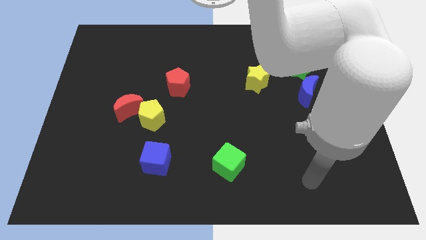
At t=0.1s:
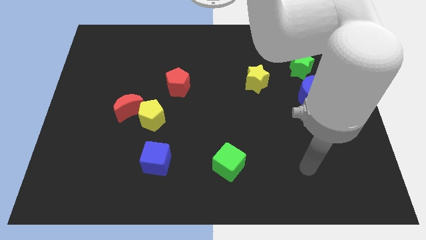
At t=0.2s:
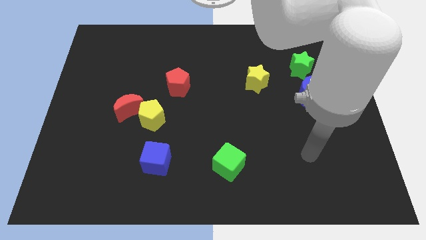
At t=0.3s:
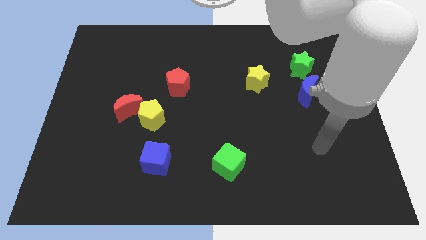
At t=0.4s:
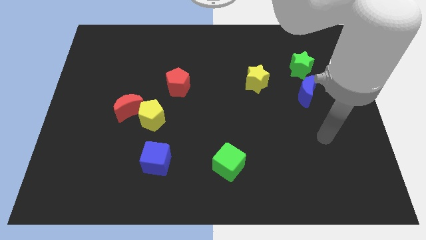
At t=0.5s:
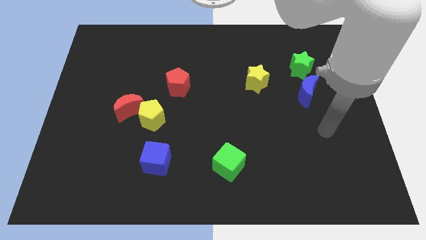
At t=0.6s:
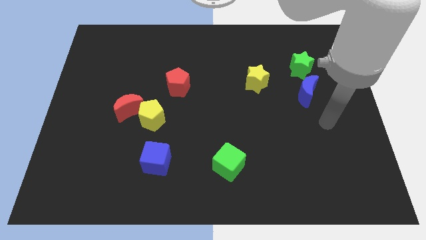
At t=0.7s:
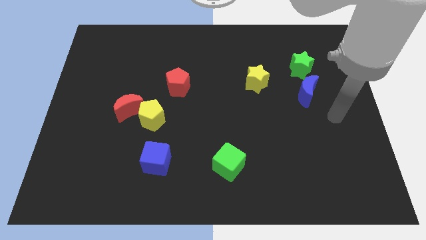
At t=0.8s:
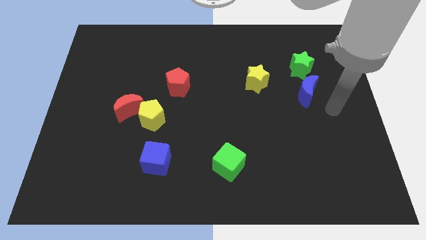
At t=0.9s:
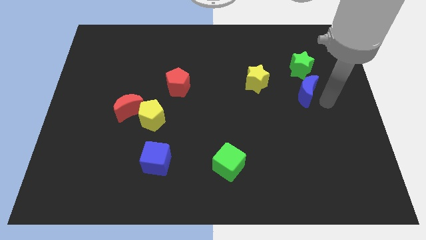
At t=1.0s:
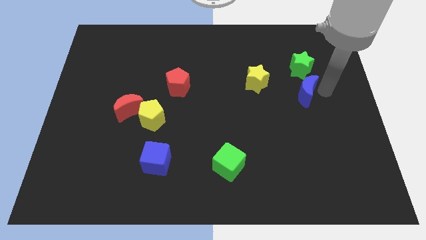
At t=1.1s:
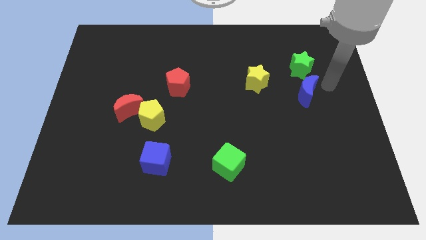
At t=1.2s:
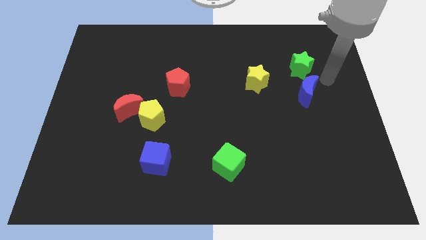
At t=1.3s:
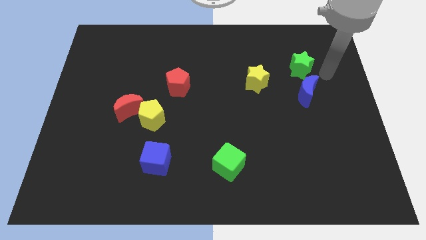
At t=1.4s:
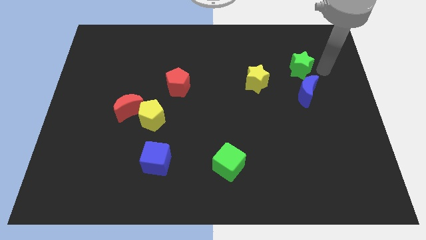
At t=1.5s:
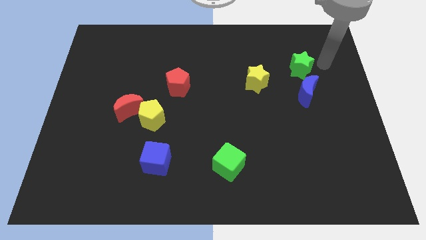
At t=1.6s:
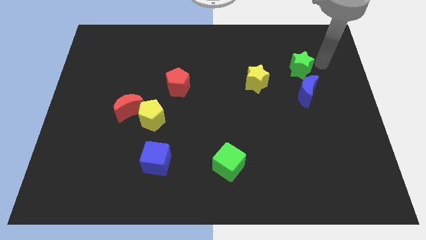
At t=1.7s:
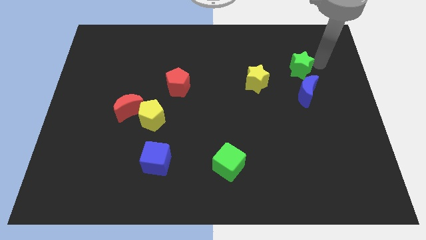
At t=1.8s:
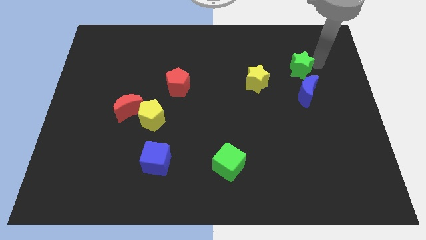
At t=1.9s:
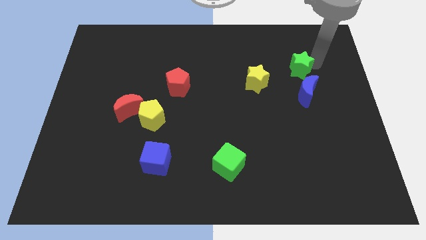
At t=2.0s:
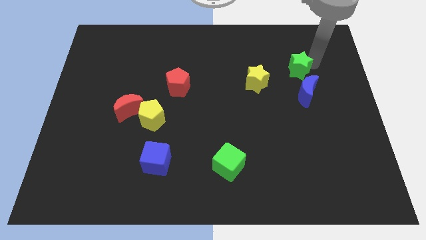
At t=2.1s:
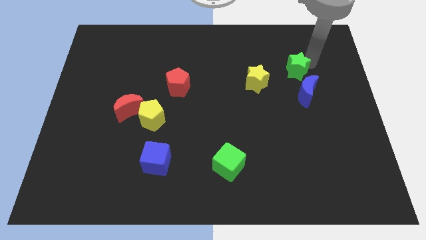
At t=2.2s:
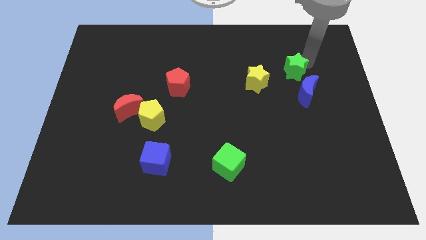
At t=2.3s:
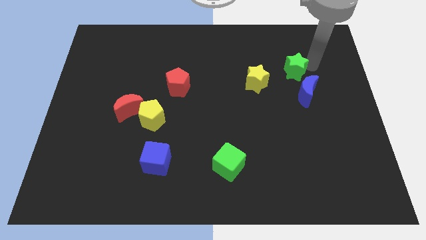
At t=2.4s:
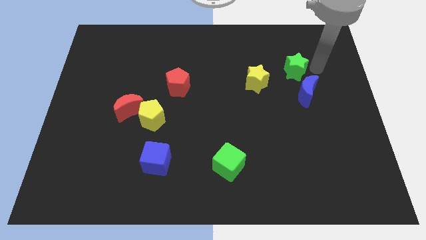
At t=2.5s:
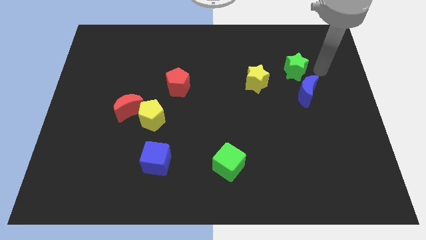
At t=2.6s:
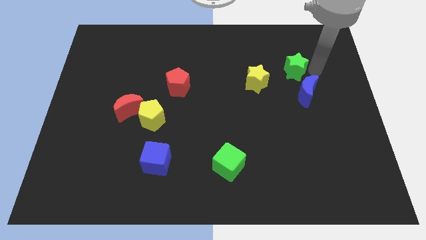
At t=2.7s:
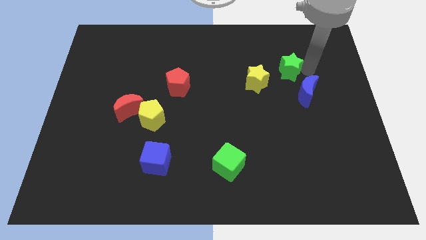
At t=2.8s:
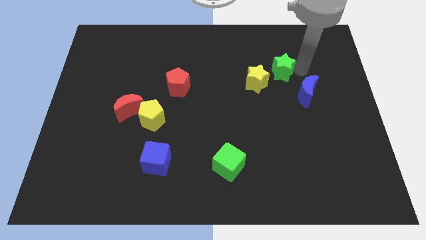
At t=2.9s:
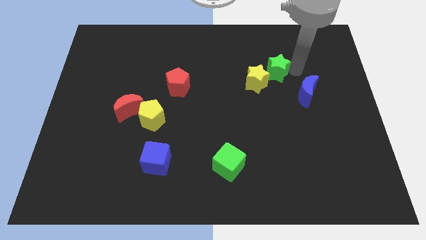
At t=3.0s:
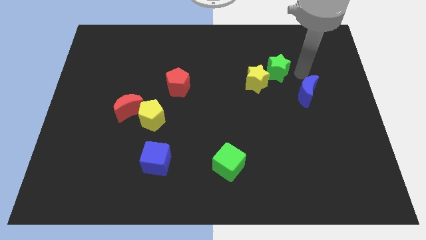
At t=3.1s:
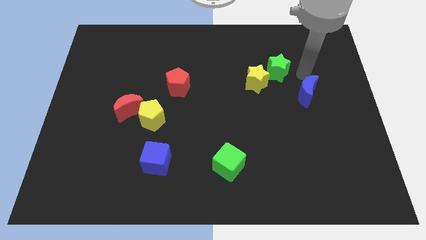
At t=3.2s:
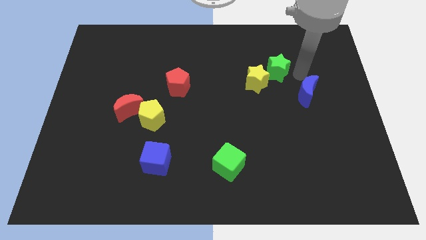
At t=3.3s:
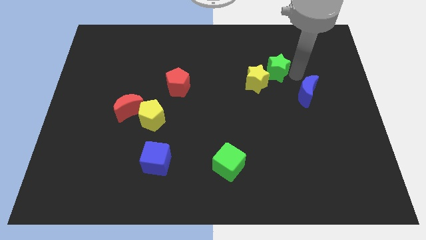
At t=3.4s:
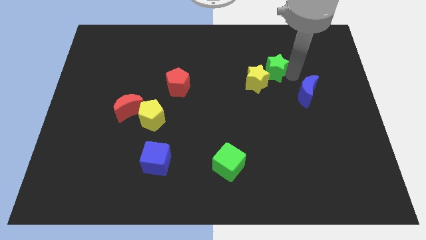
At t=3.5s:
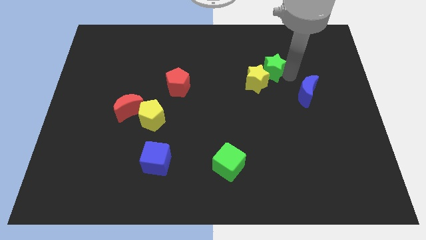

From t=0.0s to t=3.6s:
slide the green star a bit left

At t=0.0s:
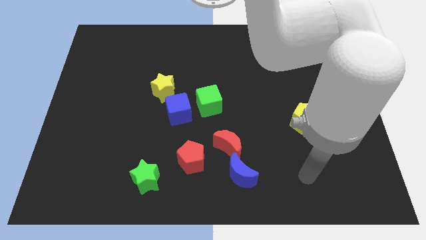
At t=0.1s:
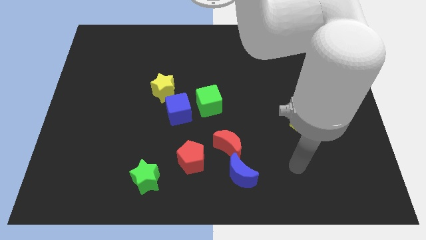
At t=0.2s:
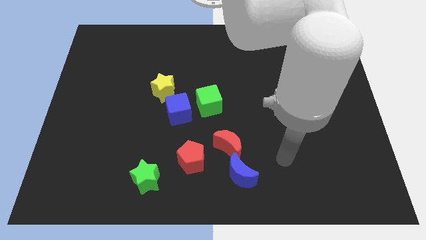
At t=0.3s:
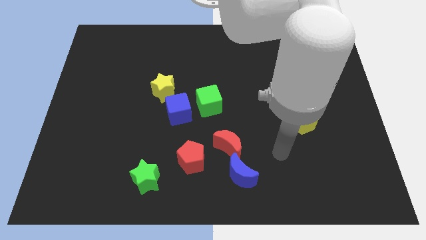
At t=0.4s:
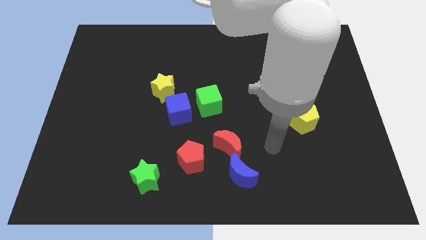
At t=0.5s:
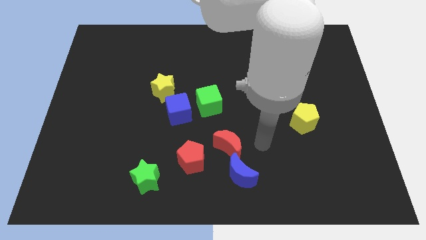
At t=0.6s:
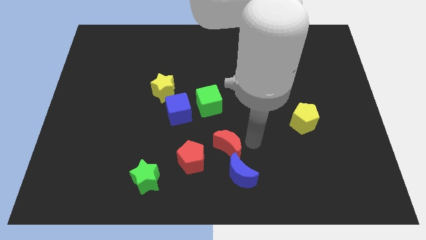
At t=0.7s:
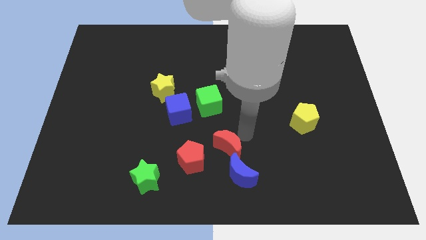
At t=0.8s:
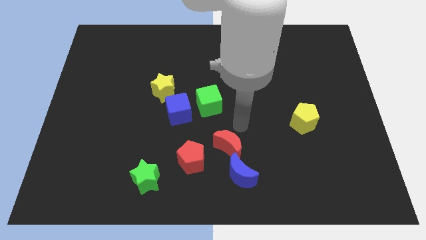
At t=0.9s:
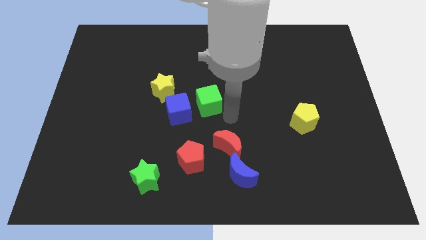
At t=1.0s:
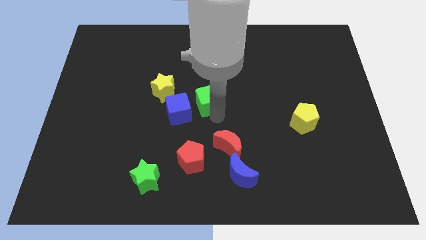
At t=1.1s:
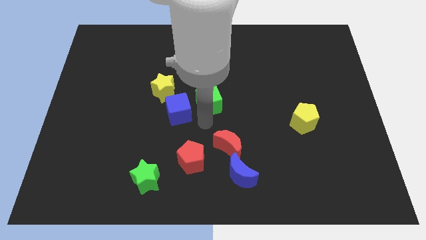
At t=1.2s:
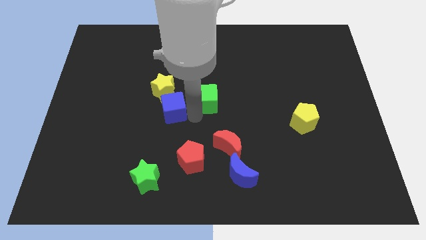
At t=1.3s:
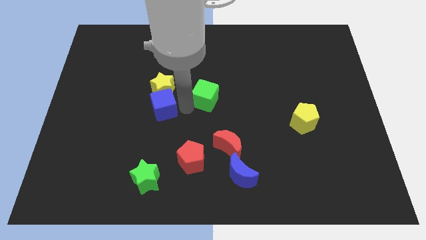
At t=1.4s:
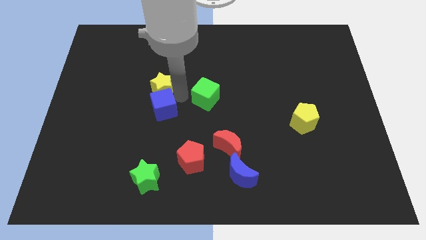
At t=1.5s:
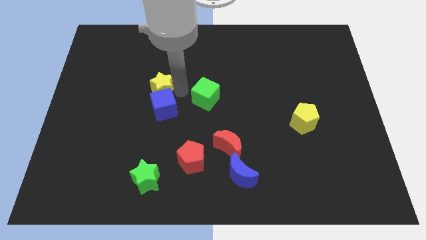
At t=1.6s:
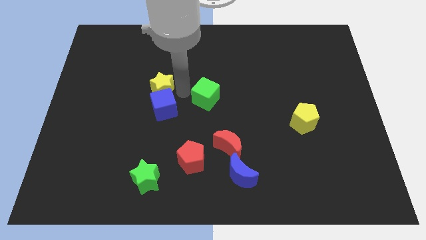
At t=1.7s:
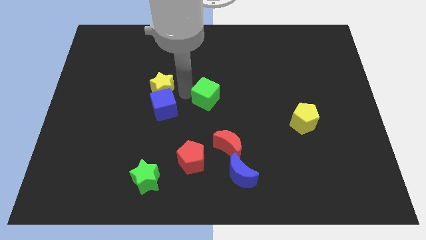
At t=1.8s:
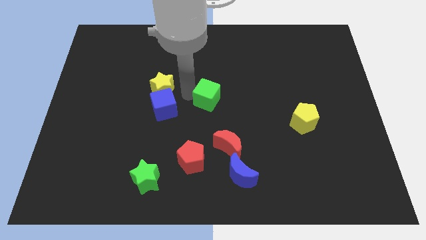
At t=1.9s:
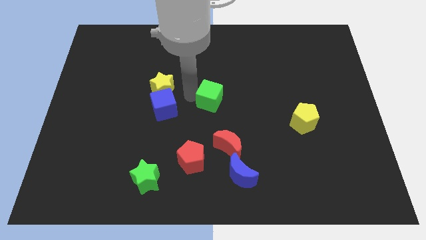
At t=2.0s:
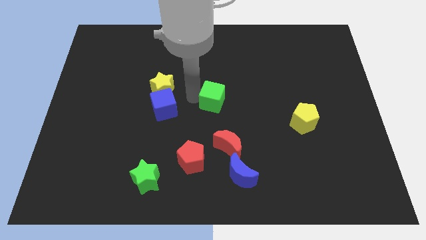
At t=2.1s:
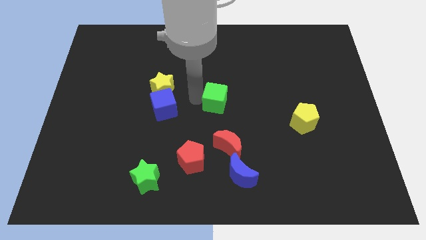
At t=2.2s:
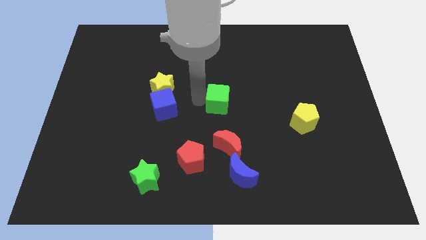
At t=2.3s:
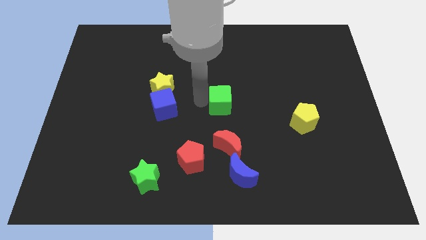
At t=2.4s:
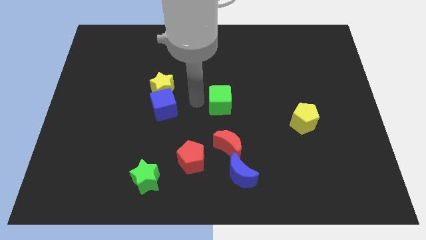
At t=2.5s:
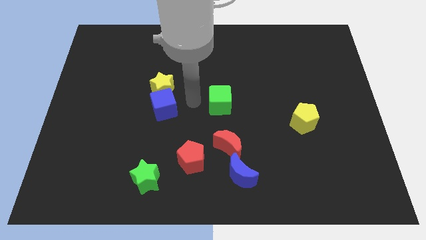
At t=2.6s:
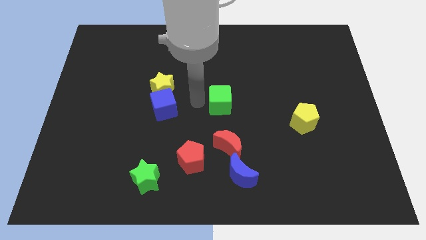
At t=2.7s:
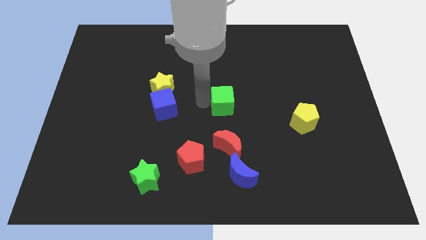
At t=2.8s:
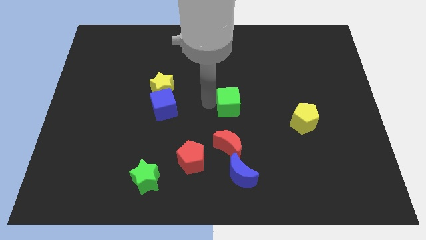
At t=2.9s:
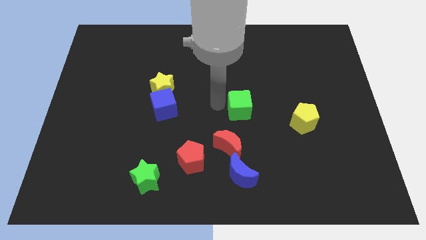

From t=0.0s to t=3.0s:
slightly move the green cube to the right

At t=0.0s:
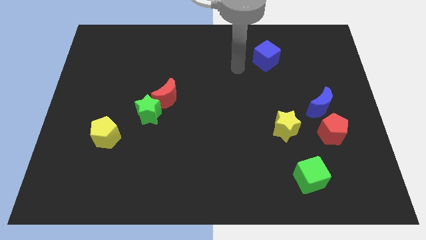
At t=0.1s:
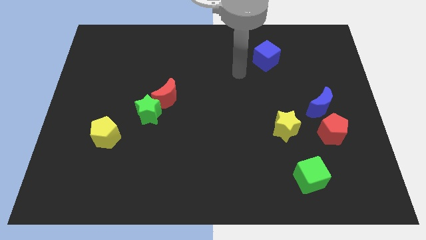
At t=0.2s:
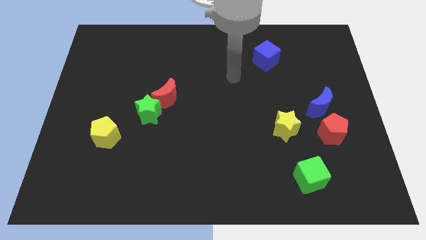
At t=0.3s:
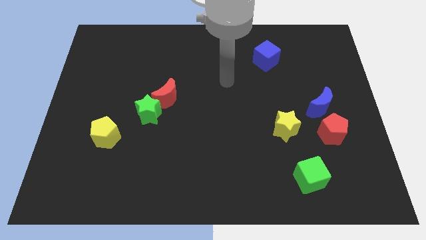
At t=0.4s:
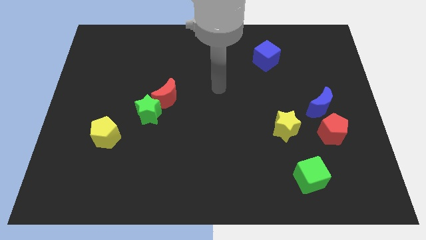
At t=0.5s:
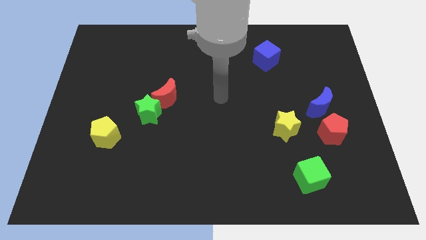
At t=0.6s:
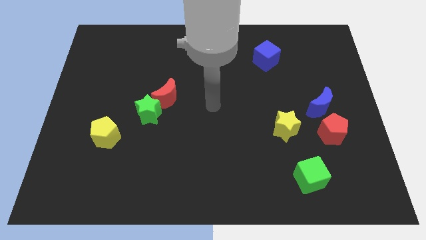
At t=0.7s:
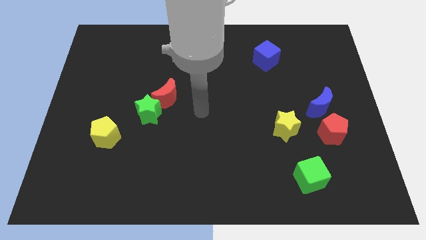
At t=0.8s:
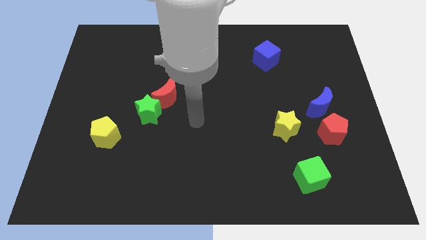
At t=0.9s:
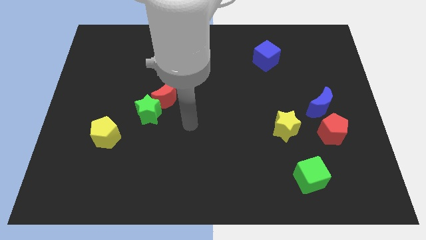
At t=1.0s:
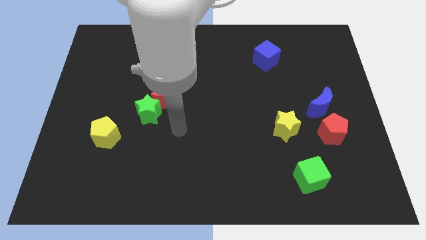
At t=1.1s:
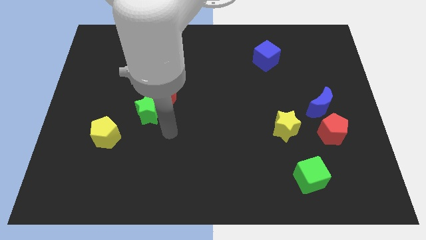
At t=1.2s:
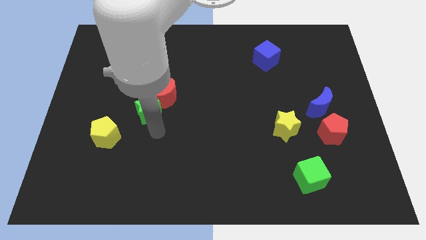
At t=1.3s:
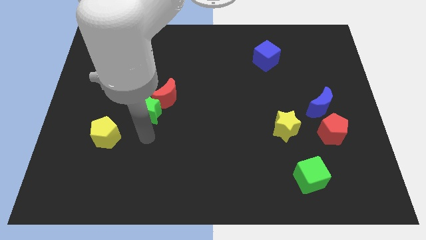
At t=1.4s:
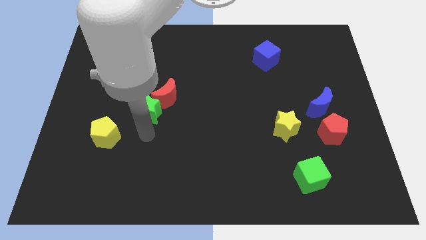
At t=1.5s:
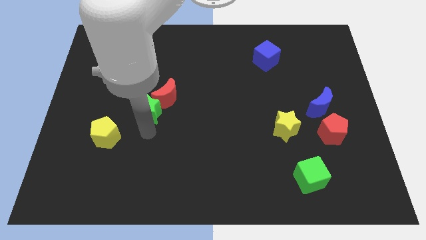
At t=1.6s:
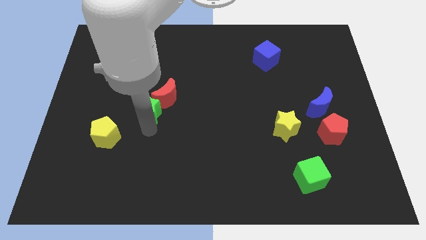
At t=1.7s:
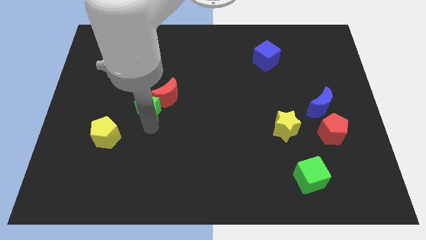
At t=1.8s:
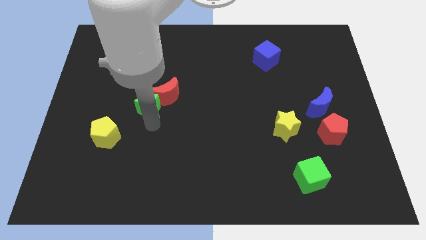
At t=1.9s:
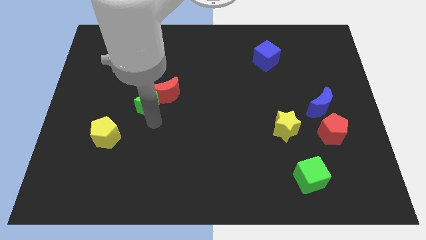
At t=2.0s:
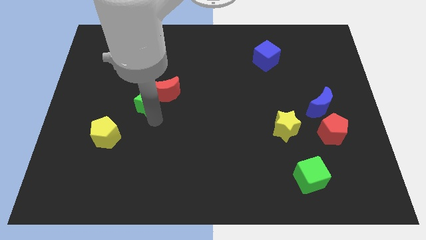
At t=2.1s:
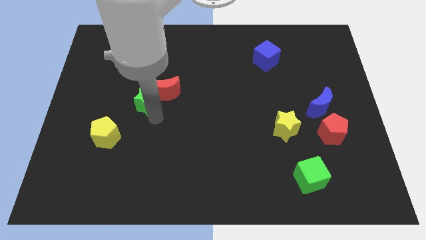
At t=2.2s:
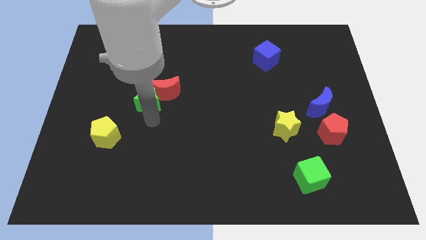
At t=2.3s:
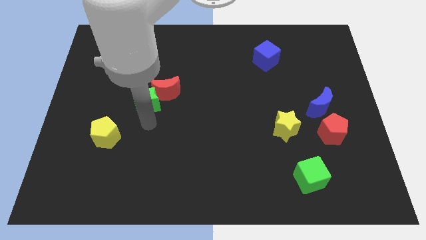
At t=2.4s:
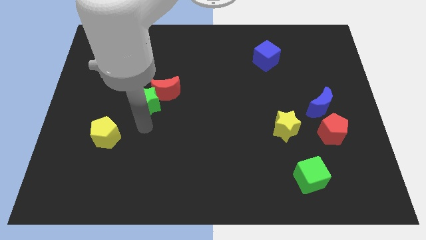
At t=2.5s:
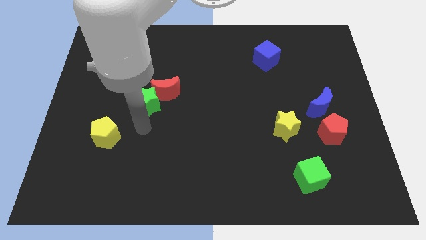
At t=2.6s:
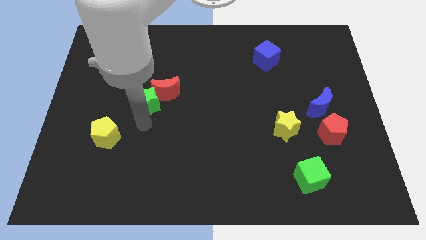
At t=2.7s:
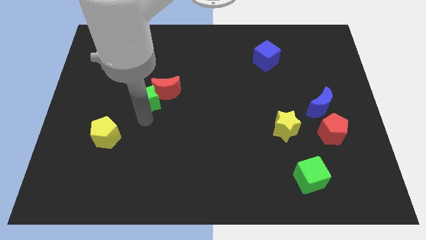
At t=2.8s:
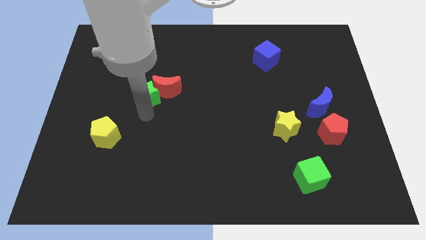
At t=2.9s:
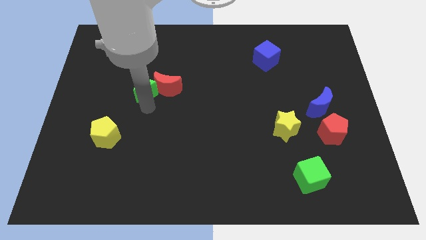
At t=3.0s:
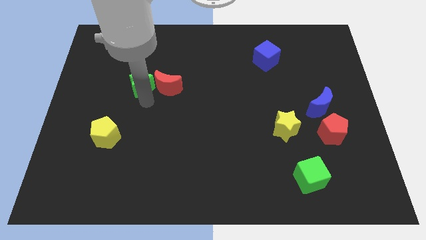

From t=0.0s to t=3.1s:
slightly push the green star up
